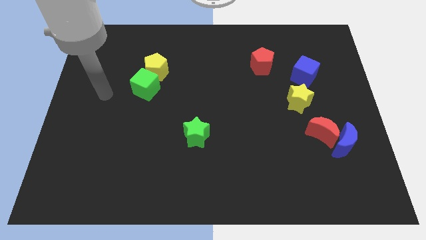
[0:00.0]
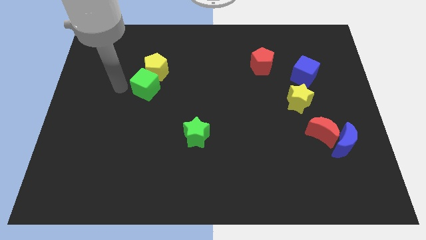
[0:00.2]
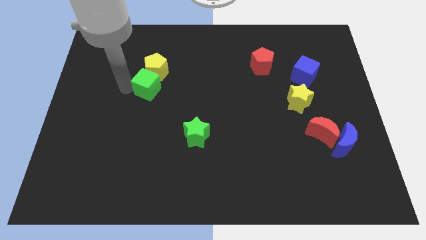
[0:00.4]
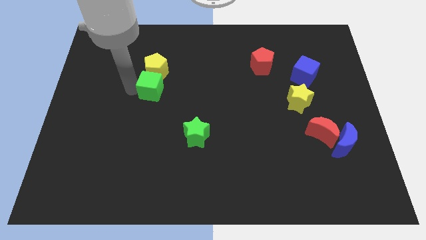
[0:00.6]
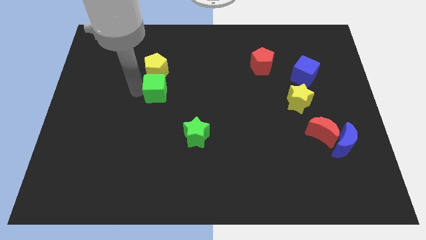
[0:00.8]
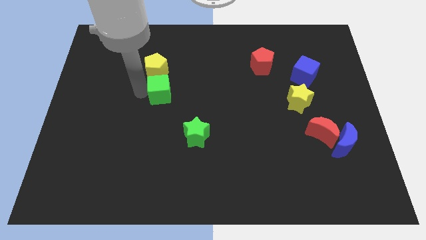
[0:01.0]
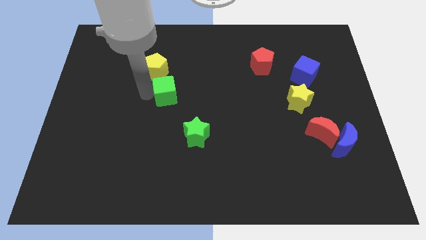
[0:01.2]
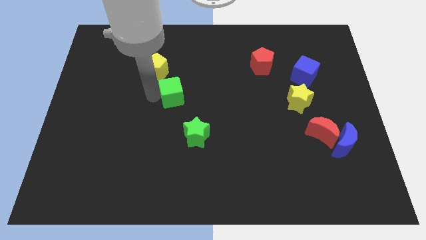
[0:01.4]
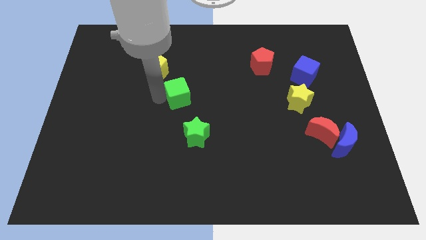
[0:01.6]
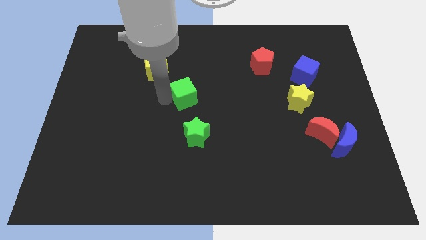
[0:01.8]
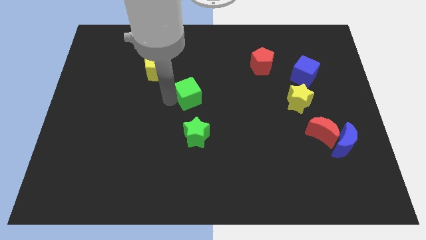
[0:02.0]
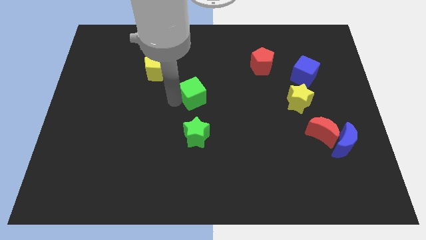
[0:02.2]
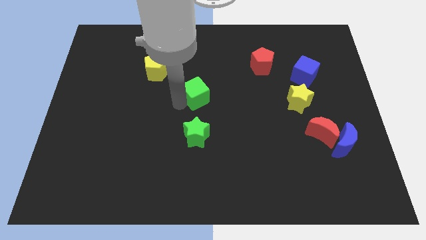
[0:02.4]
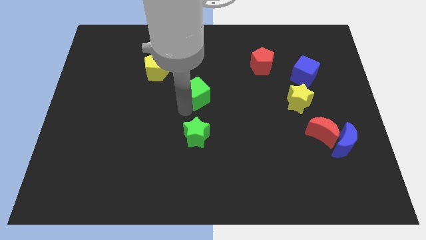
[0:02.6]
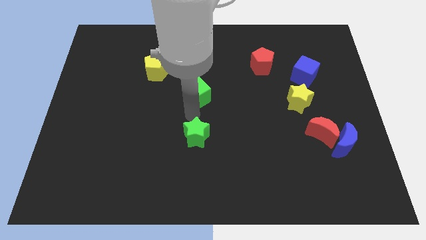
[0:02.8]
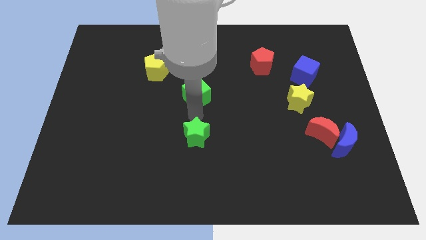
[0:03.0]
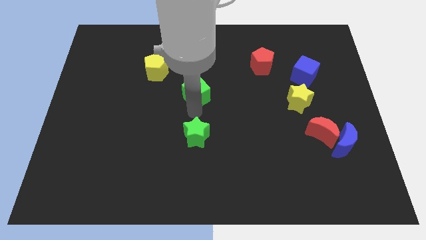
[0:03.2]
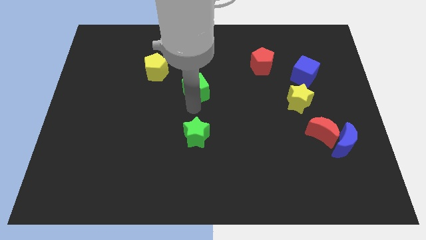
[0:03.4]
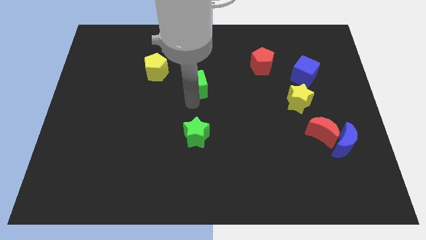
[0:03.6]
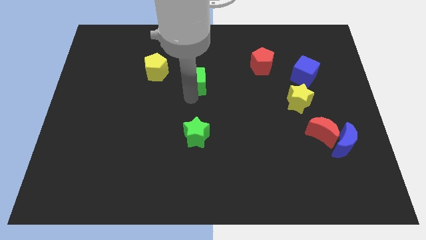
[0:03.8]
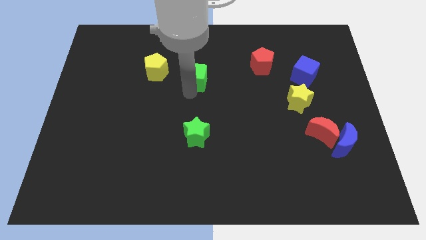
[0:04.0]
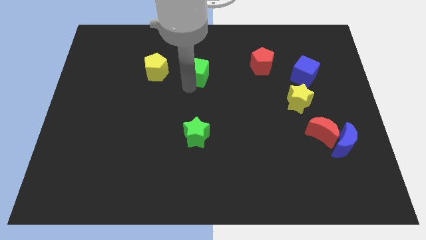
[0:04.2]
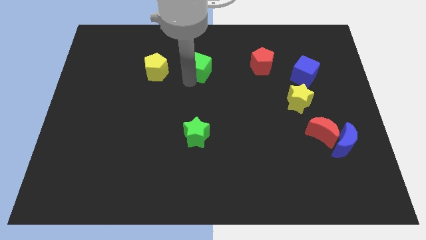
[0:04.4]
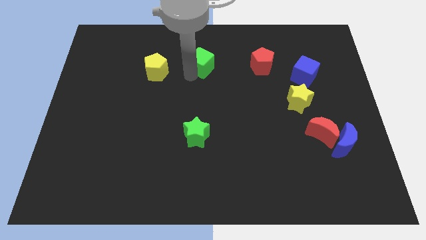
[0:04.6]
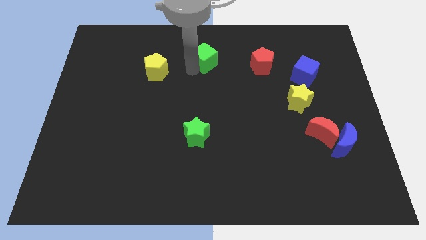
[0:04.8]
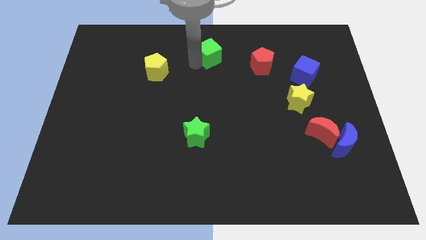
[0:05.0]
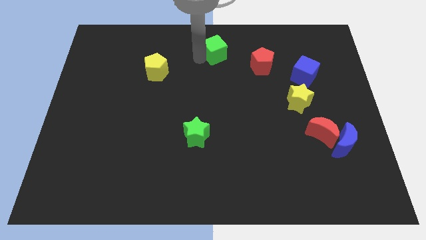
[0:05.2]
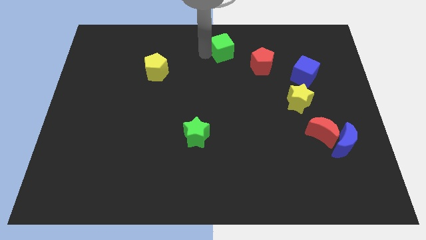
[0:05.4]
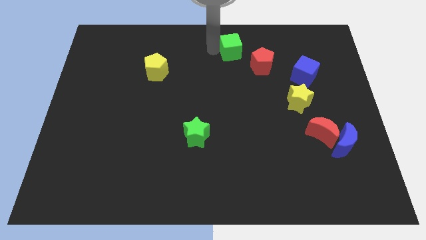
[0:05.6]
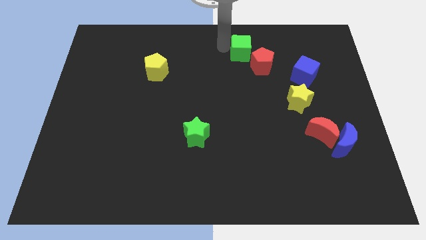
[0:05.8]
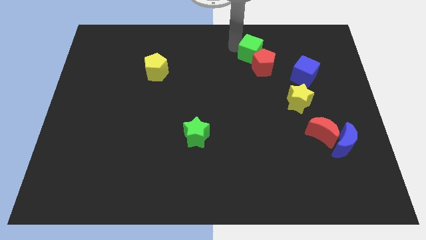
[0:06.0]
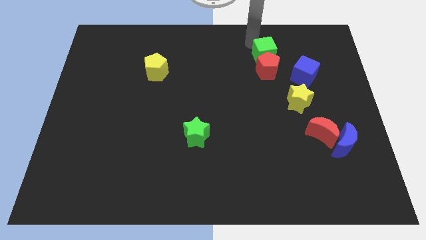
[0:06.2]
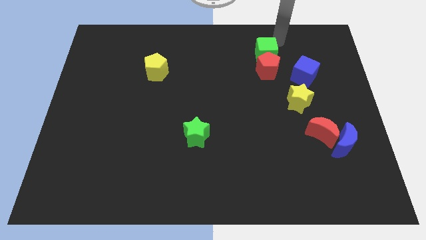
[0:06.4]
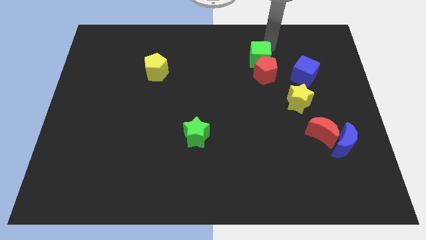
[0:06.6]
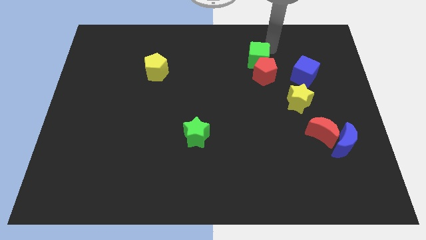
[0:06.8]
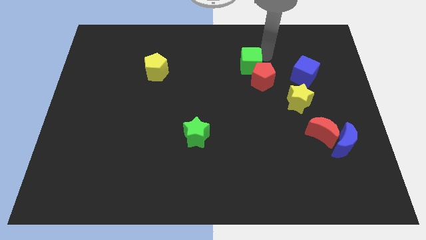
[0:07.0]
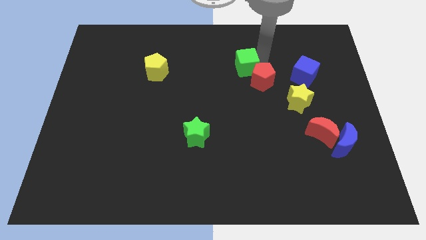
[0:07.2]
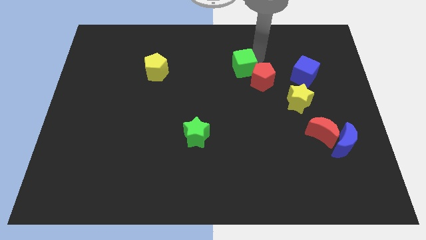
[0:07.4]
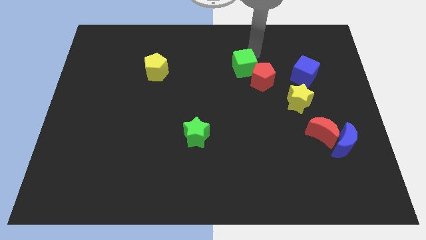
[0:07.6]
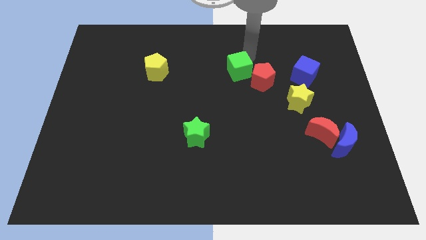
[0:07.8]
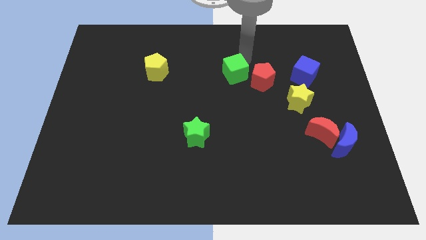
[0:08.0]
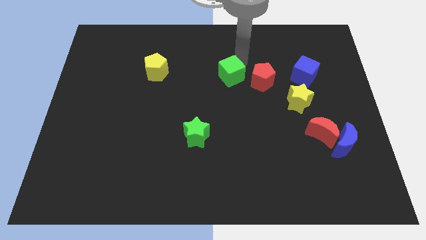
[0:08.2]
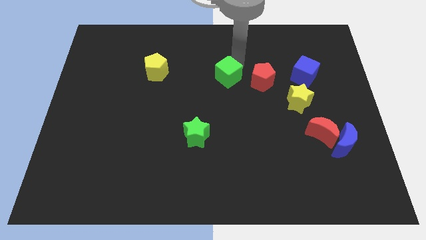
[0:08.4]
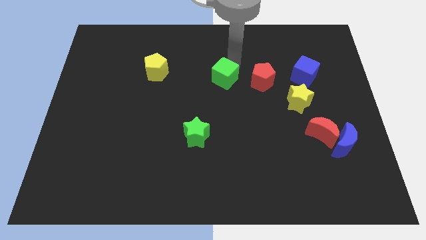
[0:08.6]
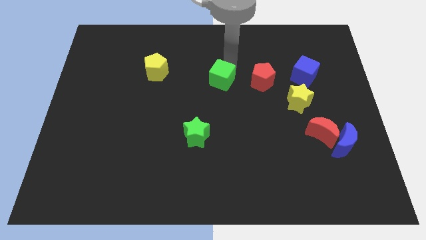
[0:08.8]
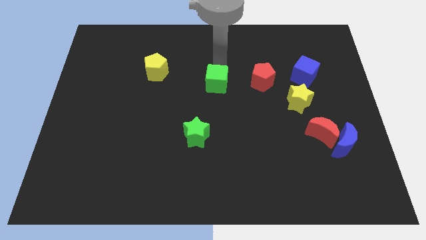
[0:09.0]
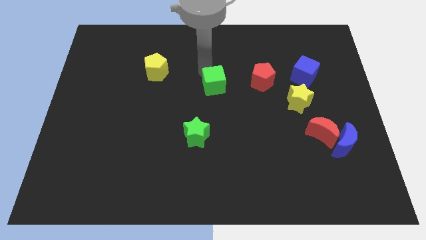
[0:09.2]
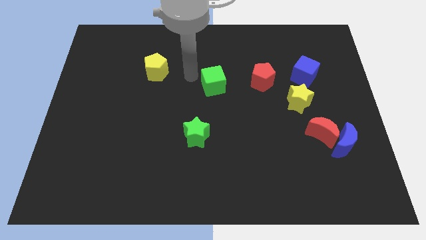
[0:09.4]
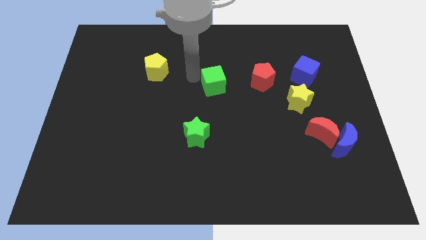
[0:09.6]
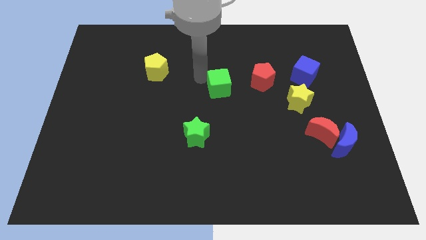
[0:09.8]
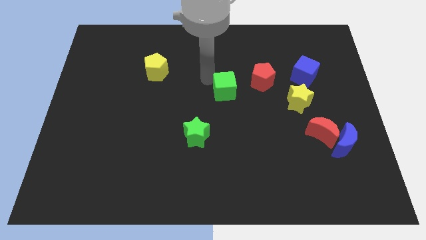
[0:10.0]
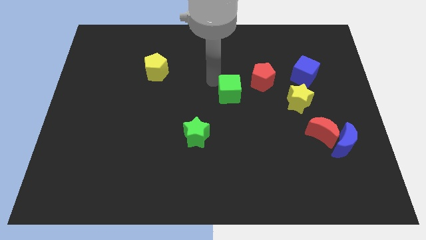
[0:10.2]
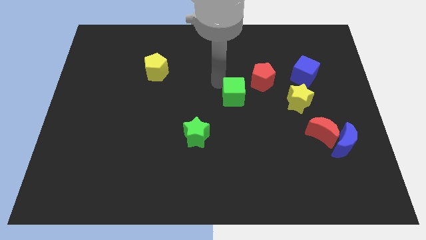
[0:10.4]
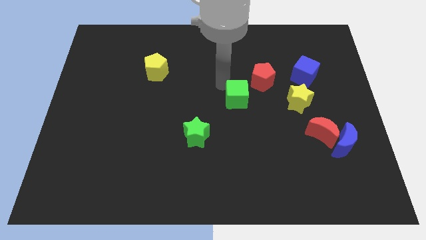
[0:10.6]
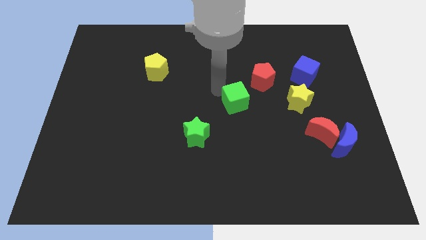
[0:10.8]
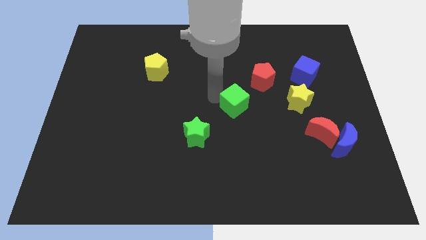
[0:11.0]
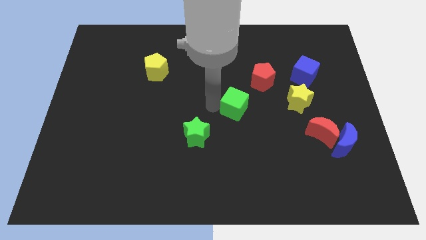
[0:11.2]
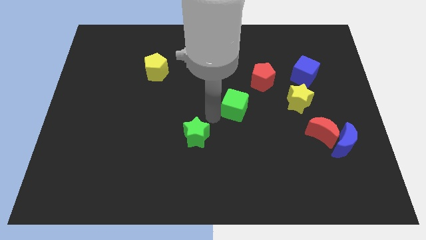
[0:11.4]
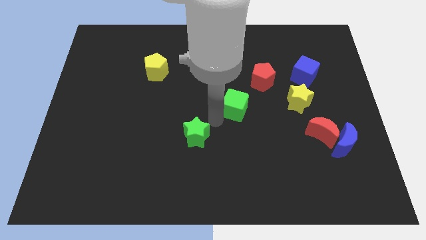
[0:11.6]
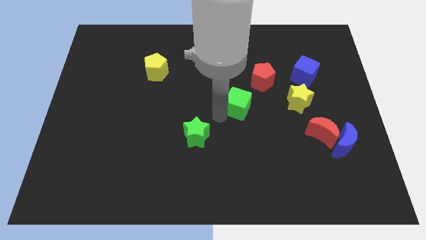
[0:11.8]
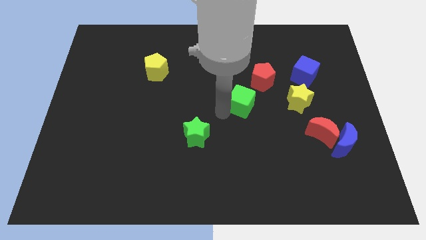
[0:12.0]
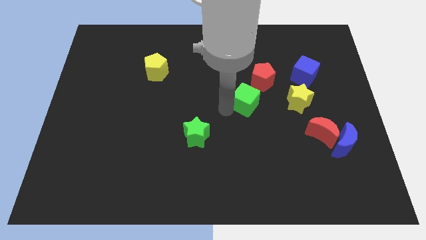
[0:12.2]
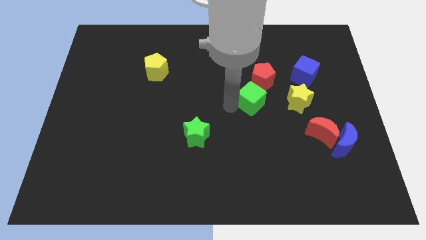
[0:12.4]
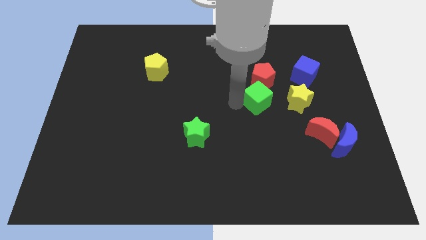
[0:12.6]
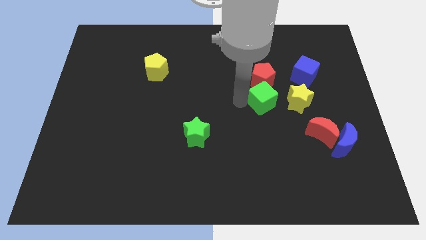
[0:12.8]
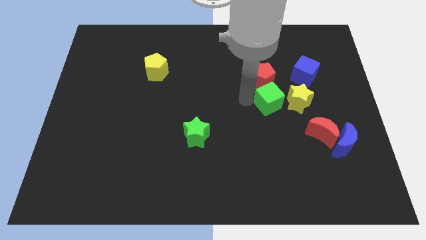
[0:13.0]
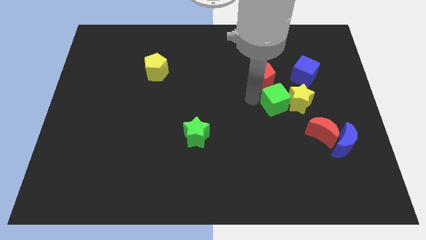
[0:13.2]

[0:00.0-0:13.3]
slide the green cube close to the yellow star

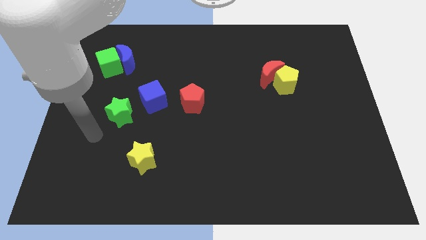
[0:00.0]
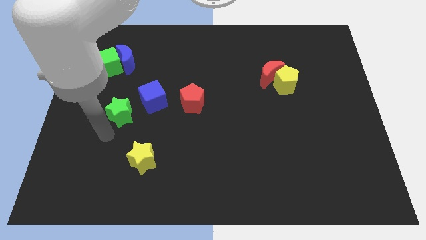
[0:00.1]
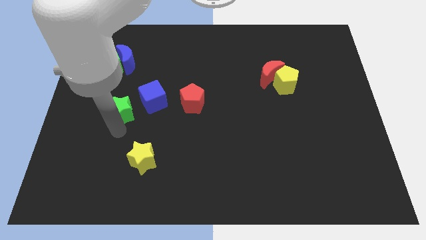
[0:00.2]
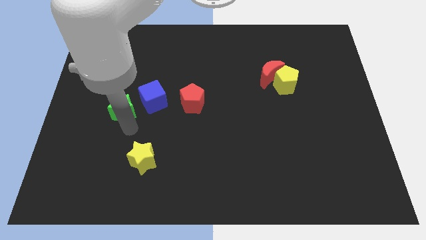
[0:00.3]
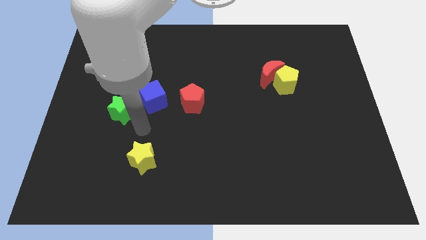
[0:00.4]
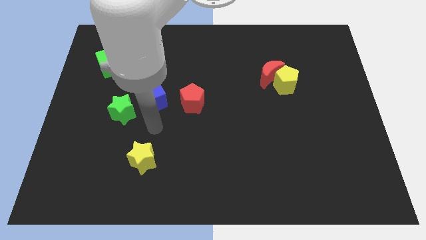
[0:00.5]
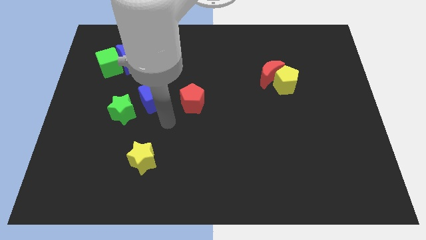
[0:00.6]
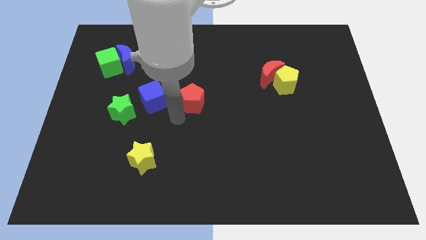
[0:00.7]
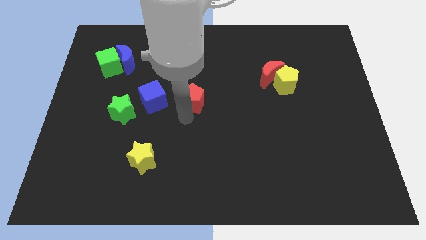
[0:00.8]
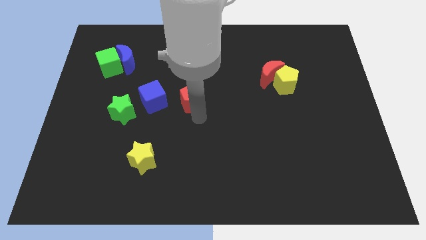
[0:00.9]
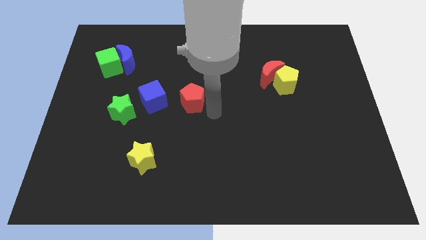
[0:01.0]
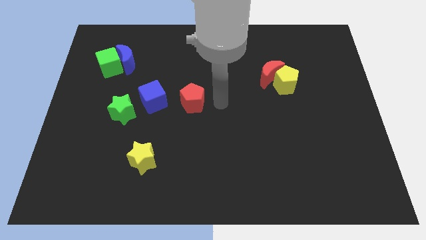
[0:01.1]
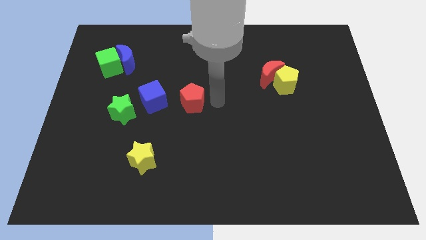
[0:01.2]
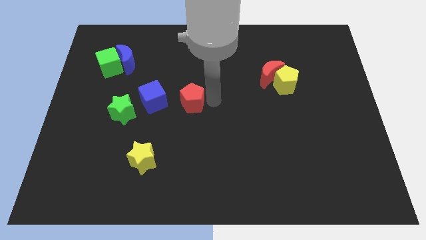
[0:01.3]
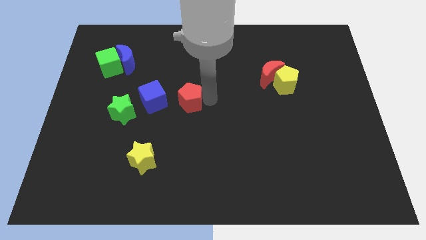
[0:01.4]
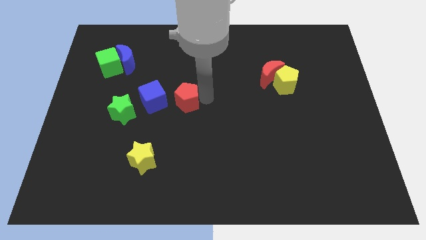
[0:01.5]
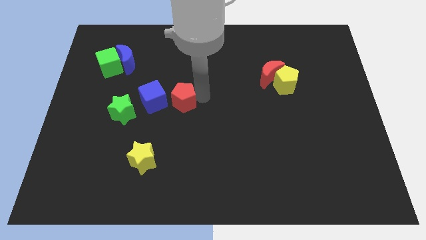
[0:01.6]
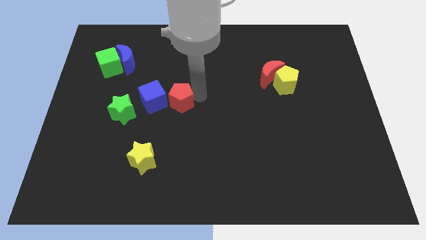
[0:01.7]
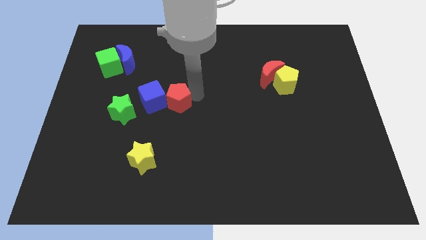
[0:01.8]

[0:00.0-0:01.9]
put the red pentagon next to the blue cube
